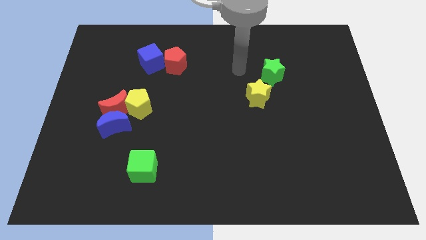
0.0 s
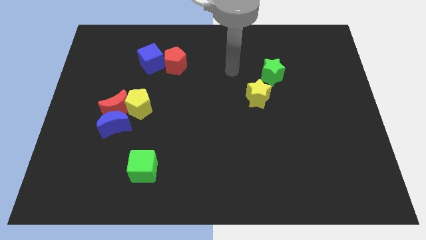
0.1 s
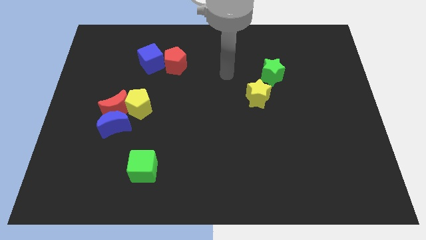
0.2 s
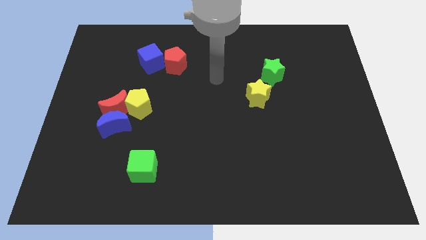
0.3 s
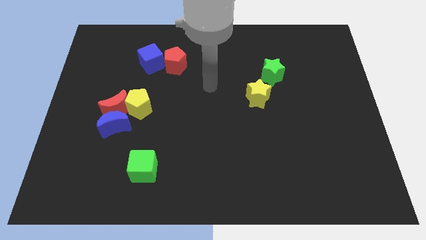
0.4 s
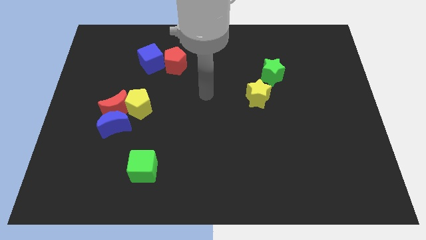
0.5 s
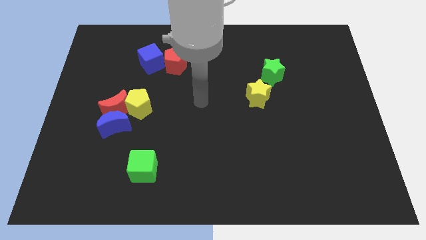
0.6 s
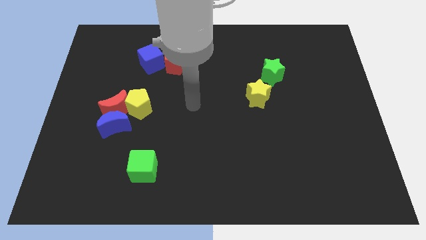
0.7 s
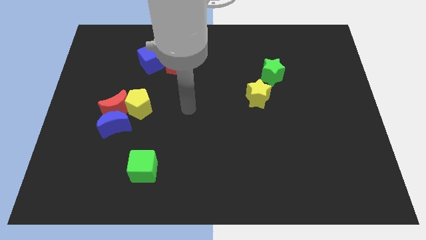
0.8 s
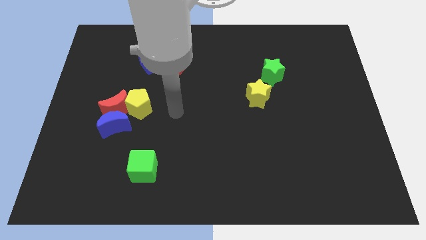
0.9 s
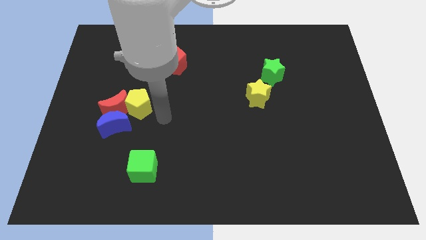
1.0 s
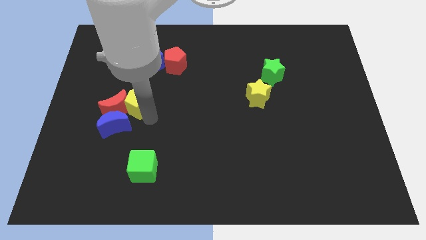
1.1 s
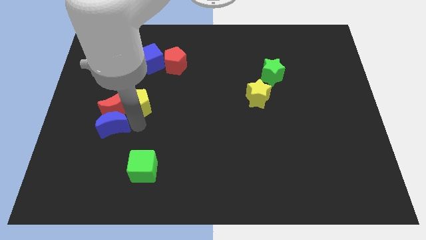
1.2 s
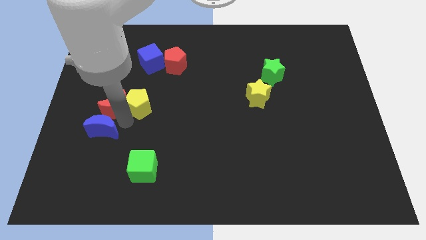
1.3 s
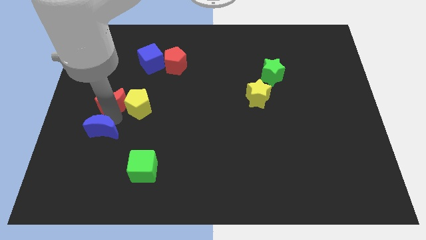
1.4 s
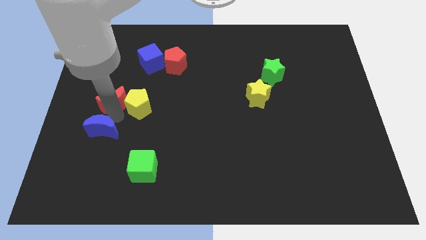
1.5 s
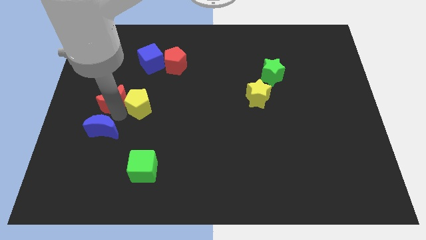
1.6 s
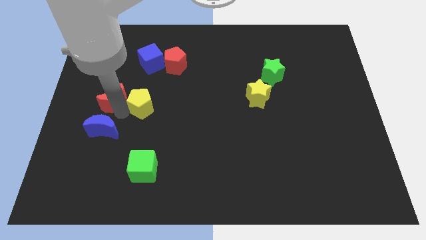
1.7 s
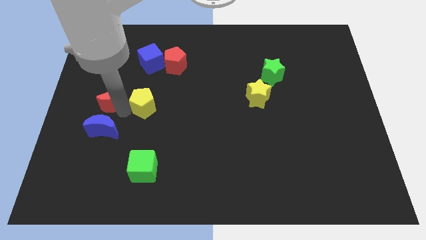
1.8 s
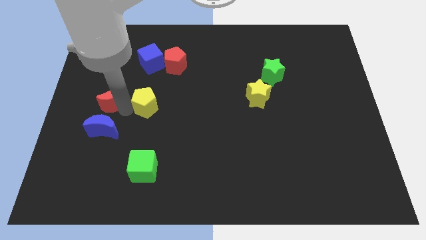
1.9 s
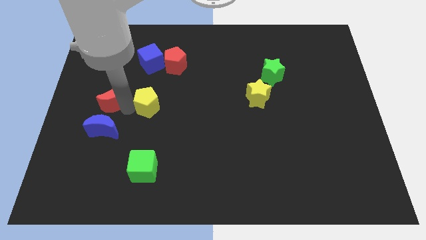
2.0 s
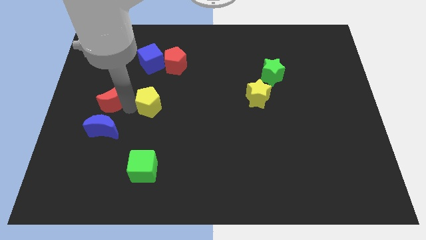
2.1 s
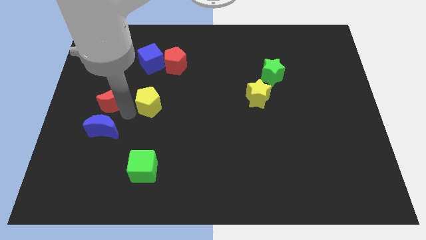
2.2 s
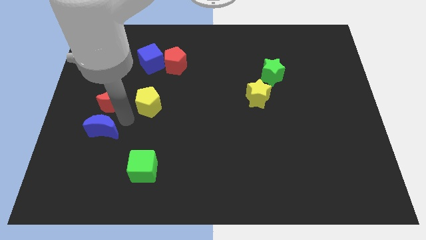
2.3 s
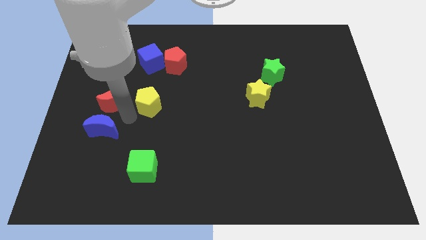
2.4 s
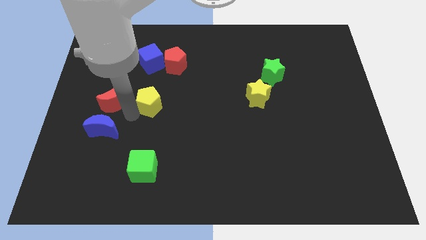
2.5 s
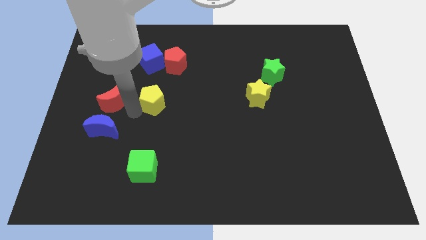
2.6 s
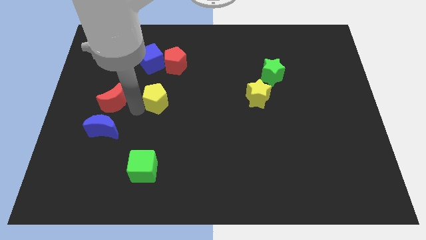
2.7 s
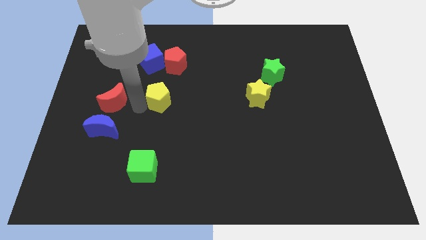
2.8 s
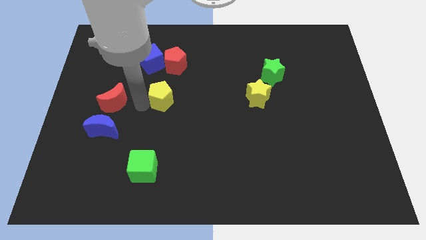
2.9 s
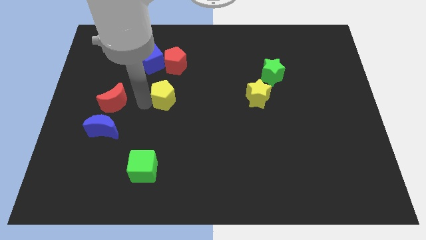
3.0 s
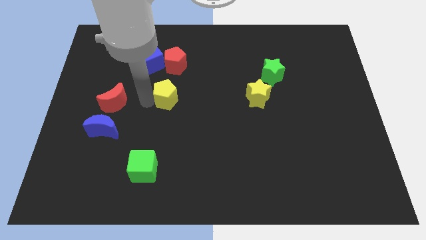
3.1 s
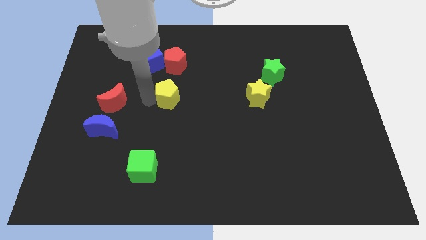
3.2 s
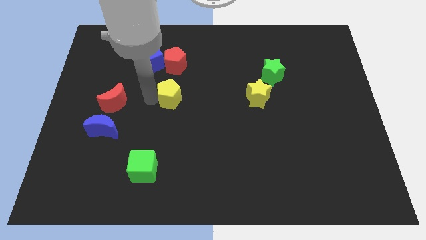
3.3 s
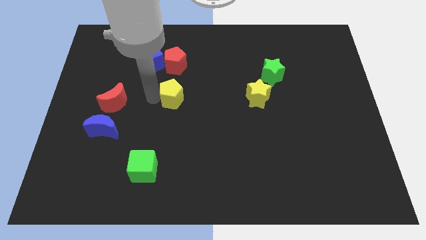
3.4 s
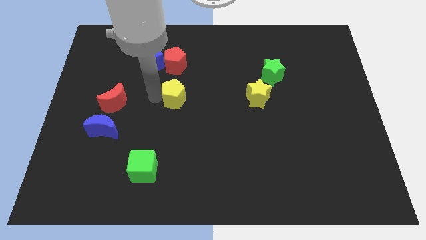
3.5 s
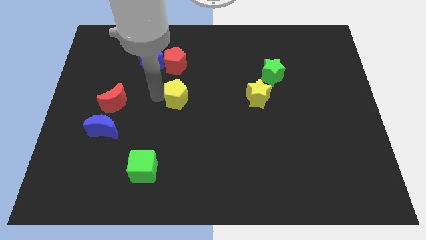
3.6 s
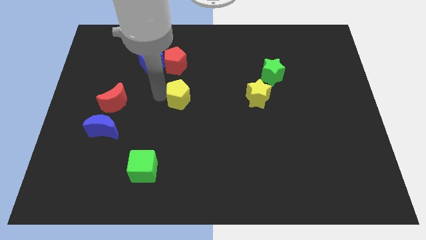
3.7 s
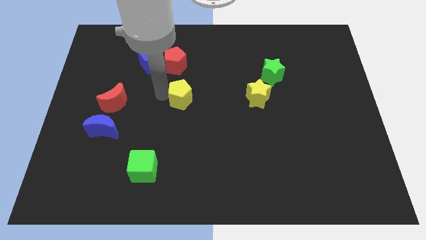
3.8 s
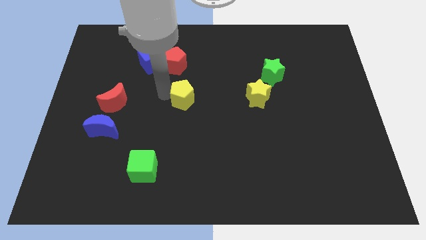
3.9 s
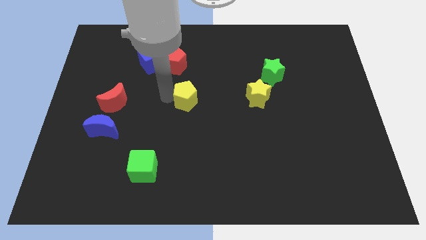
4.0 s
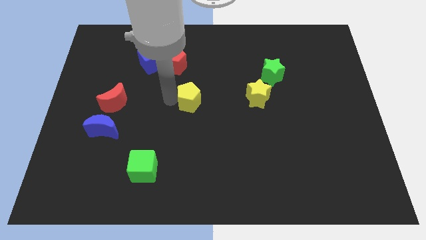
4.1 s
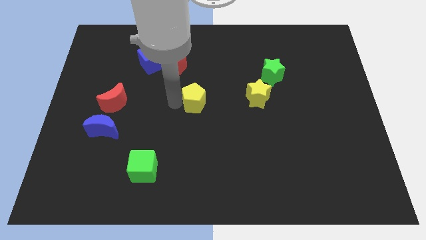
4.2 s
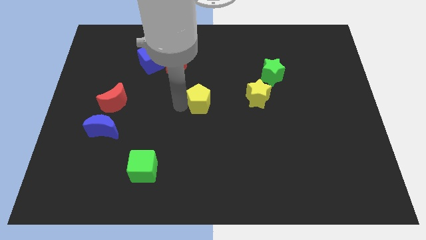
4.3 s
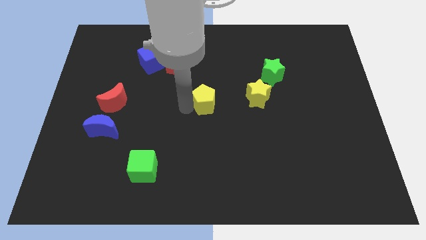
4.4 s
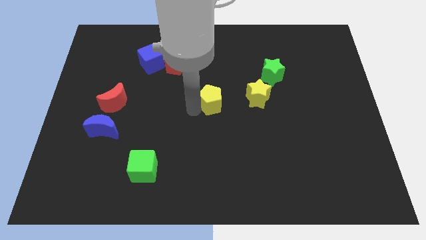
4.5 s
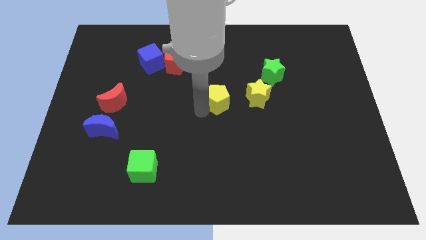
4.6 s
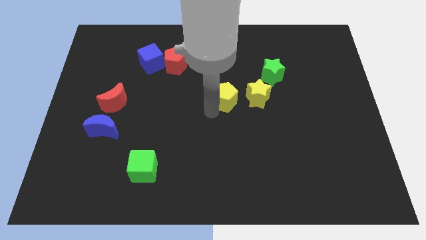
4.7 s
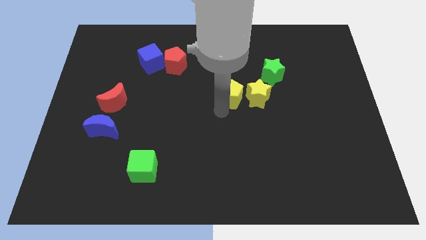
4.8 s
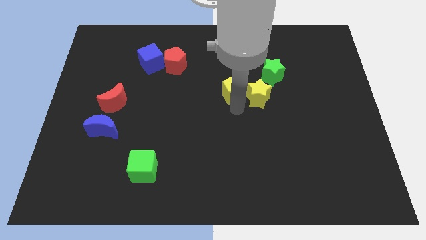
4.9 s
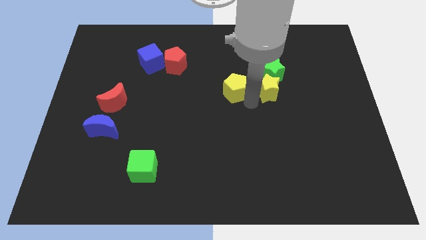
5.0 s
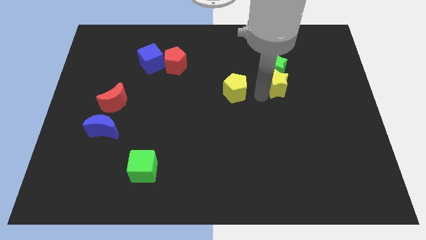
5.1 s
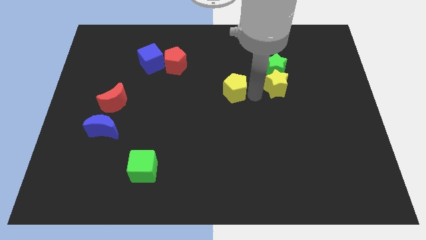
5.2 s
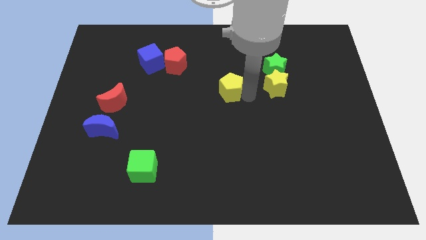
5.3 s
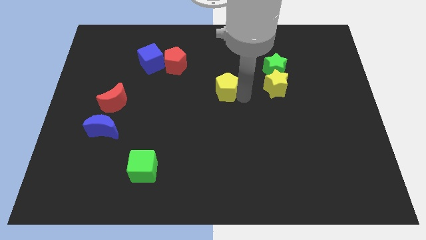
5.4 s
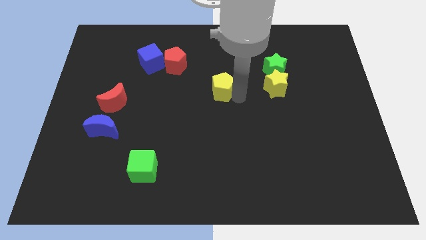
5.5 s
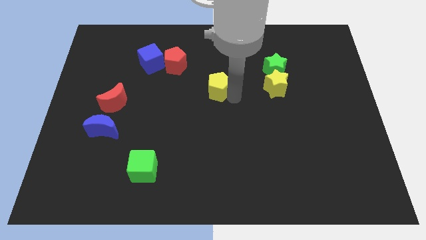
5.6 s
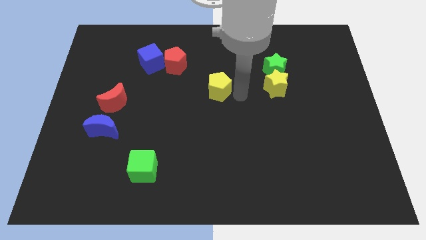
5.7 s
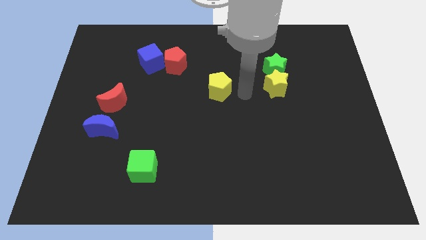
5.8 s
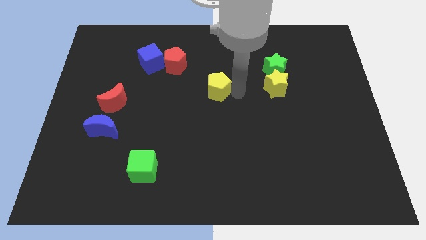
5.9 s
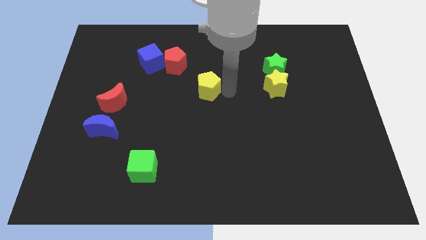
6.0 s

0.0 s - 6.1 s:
put the yellow pentagon to the bottom right of the red pentagon

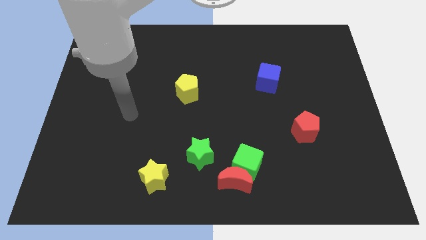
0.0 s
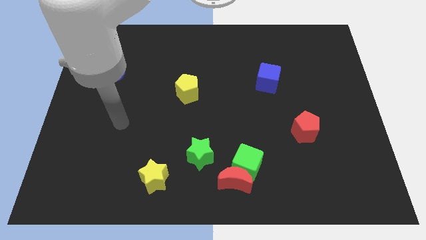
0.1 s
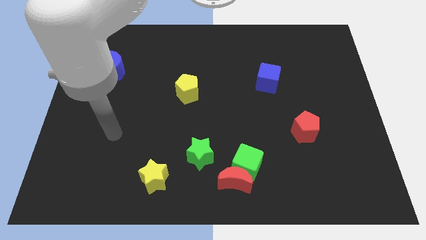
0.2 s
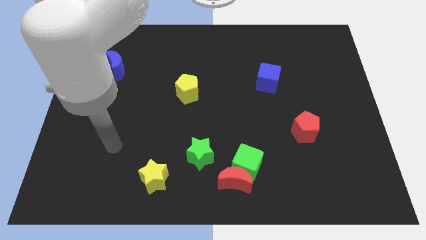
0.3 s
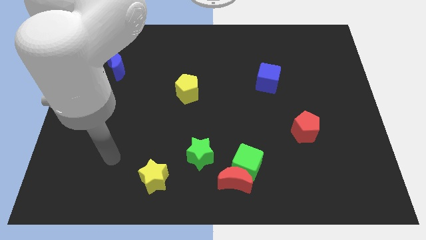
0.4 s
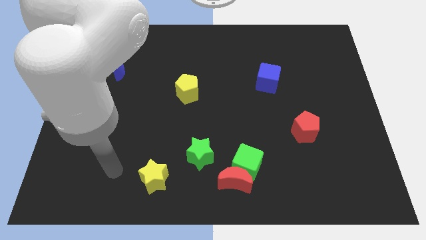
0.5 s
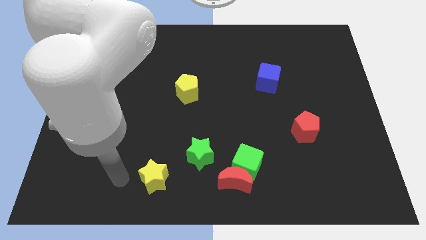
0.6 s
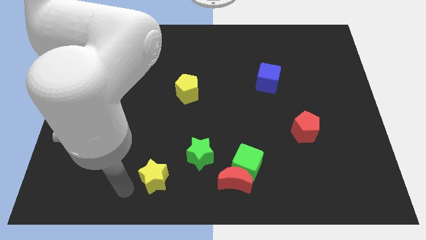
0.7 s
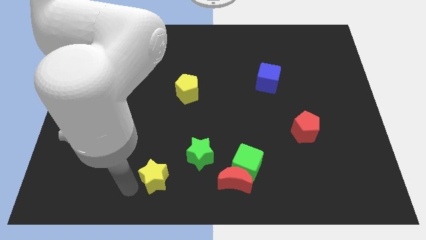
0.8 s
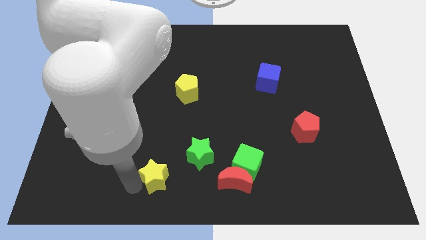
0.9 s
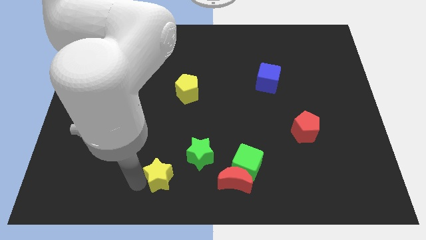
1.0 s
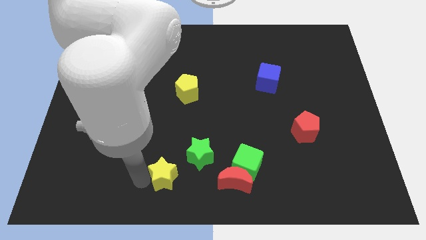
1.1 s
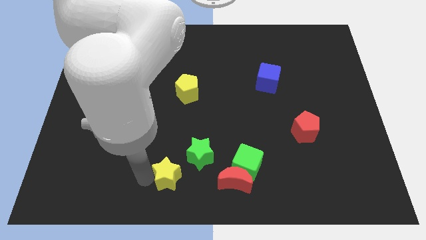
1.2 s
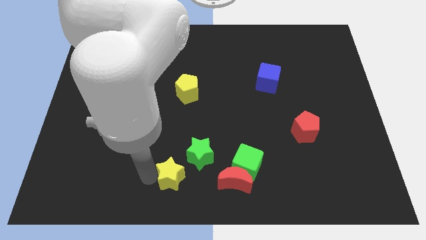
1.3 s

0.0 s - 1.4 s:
push the yellow star just left of the green cube
